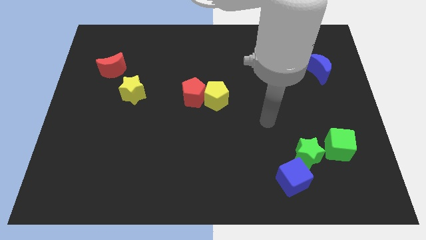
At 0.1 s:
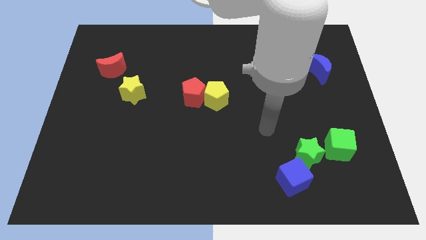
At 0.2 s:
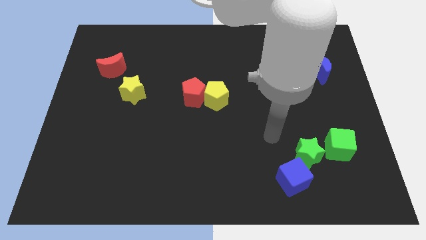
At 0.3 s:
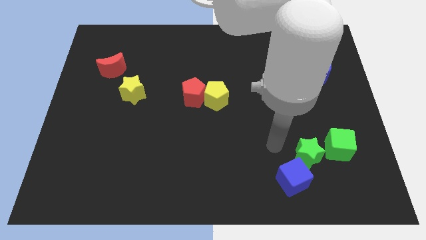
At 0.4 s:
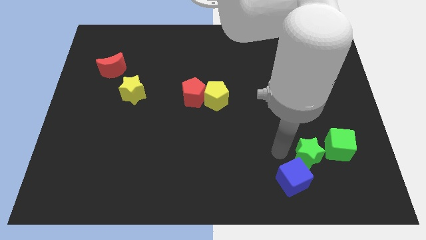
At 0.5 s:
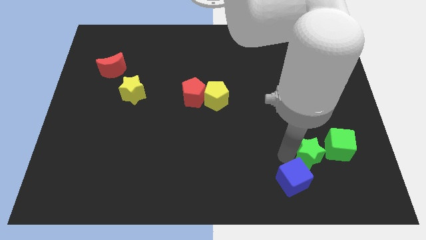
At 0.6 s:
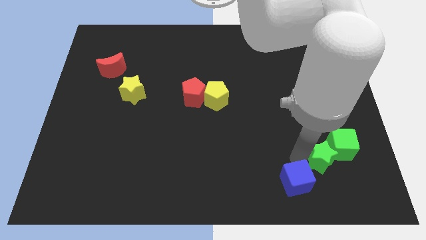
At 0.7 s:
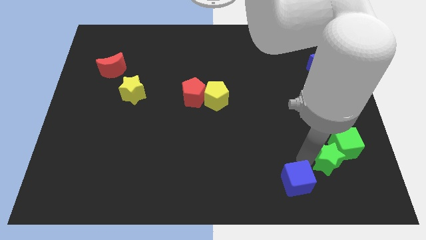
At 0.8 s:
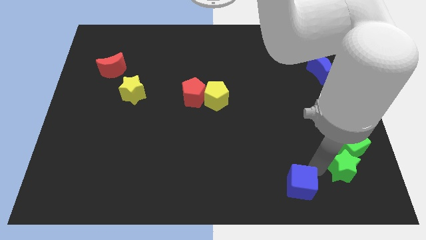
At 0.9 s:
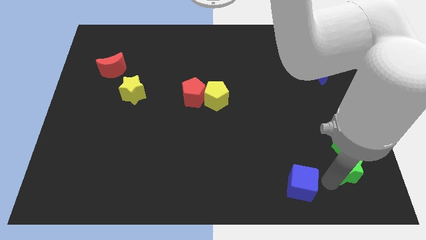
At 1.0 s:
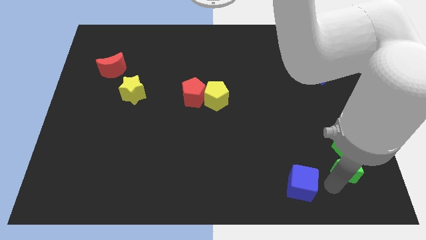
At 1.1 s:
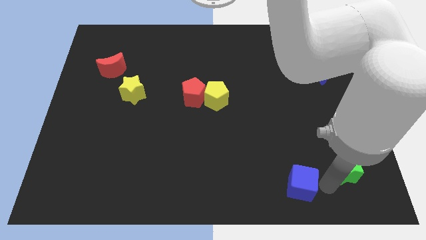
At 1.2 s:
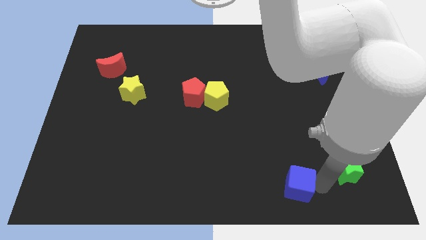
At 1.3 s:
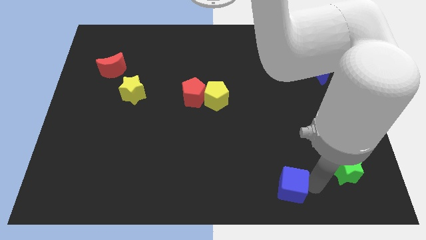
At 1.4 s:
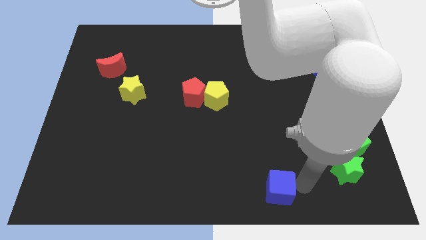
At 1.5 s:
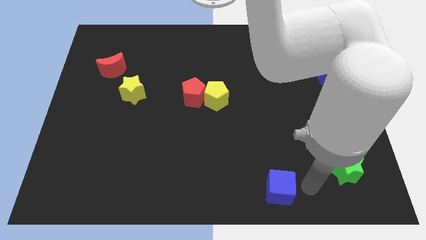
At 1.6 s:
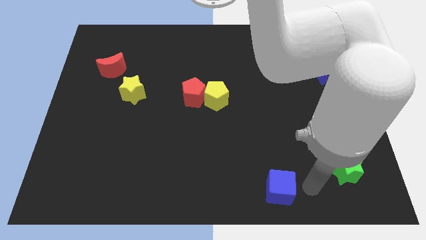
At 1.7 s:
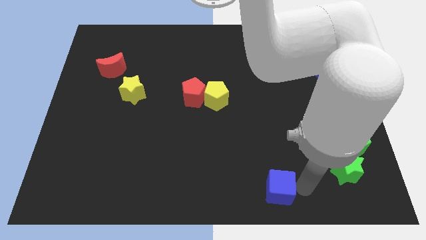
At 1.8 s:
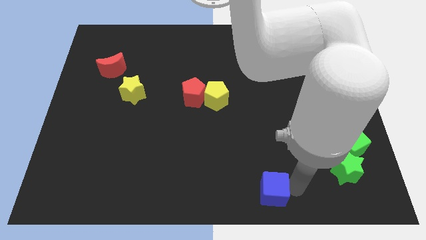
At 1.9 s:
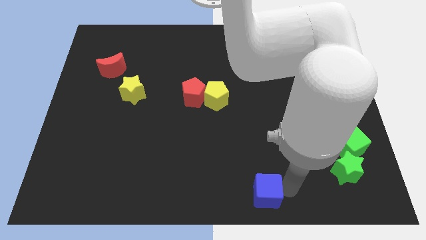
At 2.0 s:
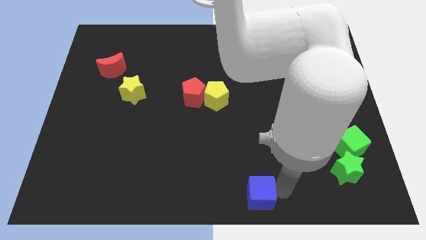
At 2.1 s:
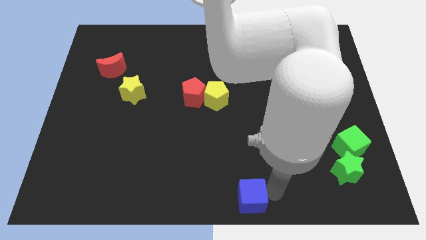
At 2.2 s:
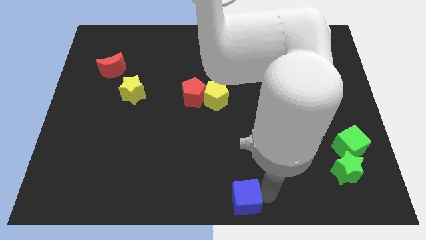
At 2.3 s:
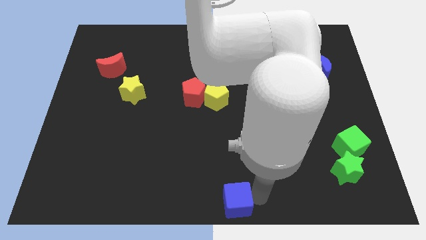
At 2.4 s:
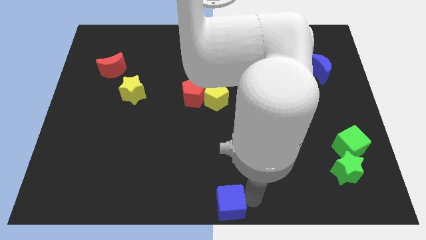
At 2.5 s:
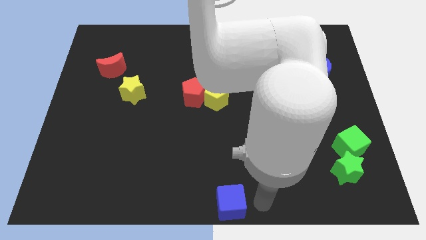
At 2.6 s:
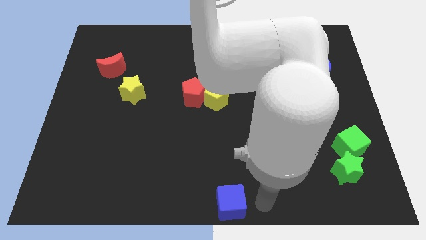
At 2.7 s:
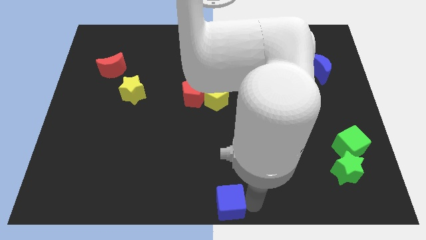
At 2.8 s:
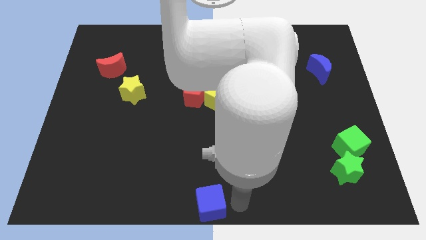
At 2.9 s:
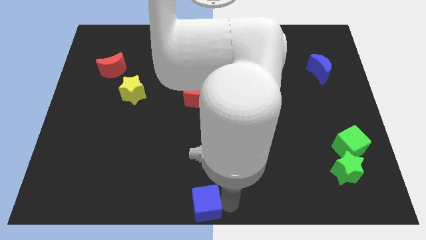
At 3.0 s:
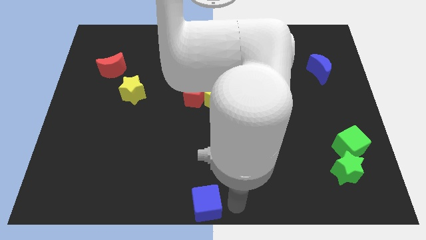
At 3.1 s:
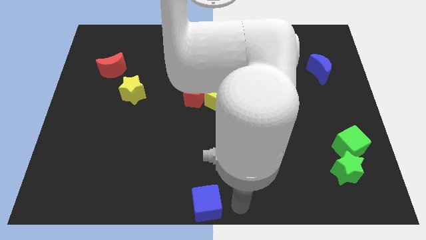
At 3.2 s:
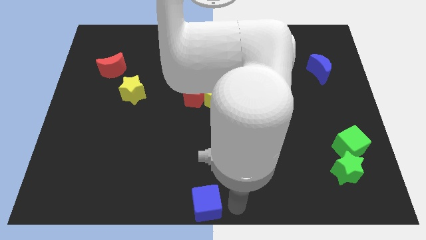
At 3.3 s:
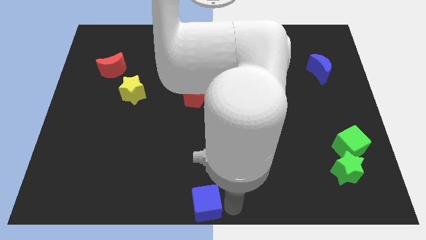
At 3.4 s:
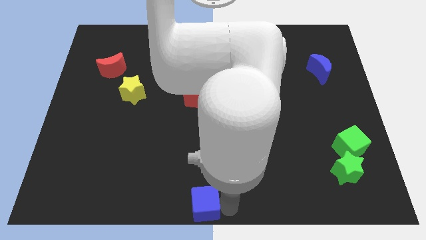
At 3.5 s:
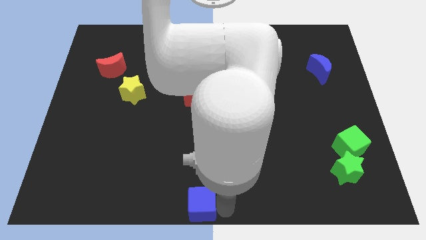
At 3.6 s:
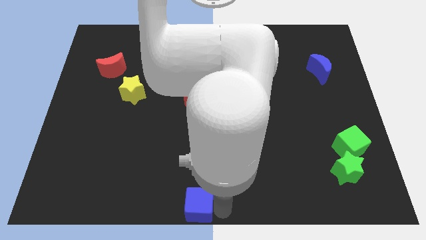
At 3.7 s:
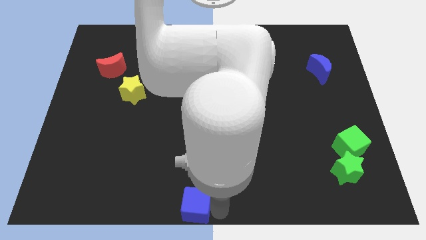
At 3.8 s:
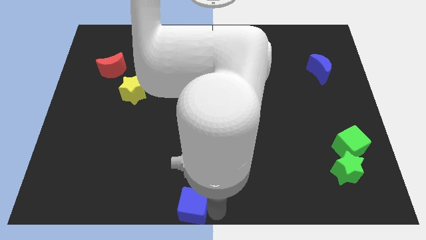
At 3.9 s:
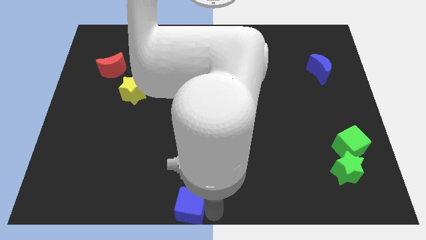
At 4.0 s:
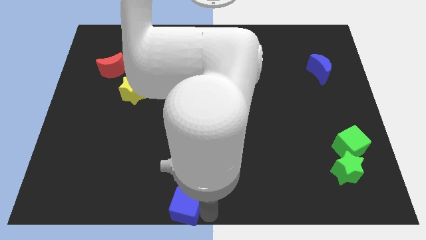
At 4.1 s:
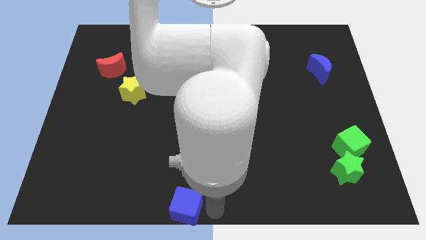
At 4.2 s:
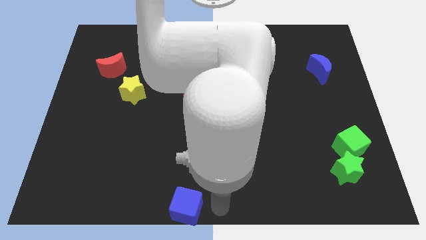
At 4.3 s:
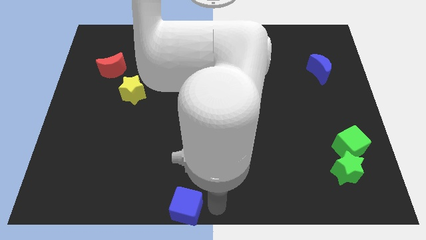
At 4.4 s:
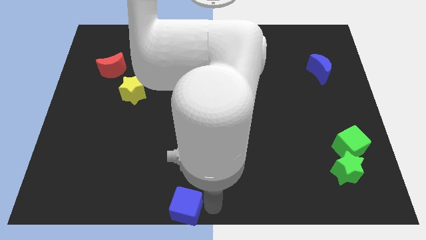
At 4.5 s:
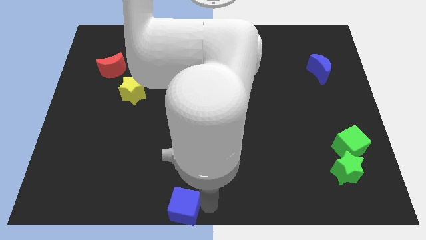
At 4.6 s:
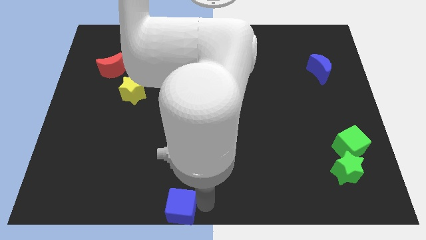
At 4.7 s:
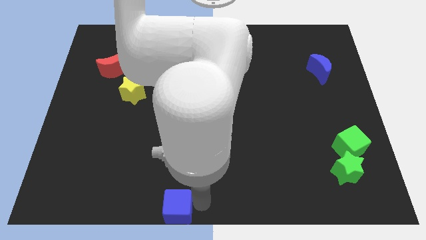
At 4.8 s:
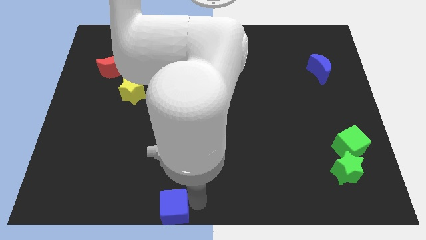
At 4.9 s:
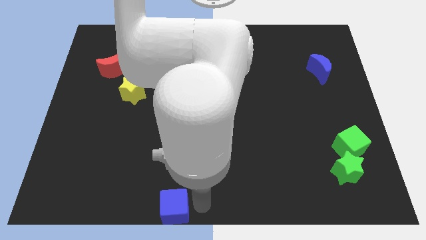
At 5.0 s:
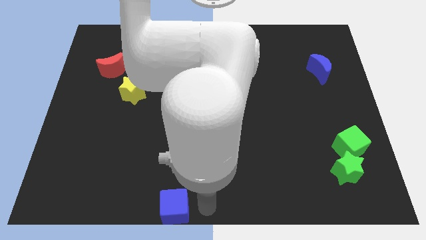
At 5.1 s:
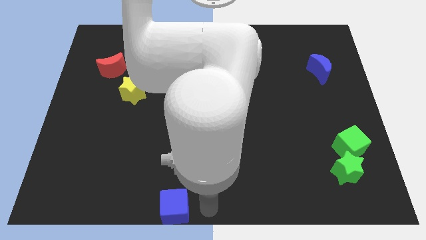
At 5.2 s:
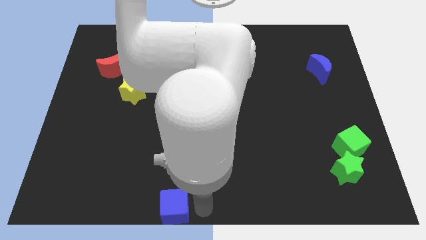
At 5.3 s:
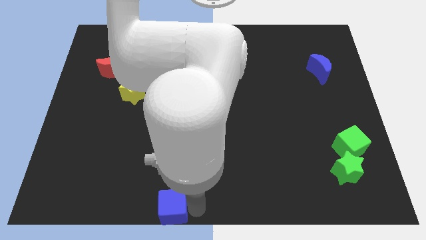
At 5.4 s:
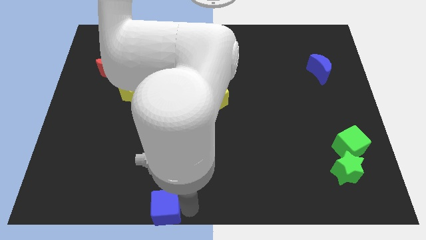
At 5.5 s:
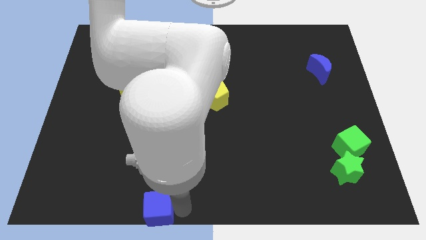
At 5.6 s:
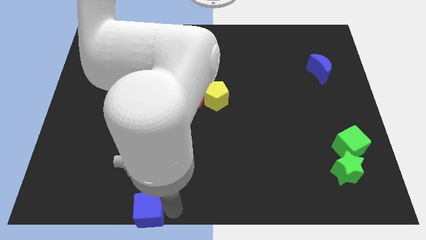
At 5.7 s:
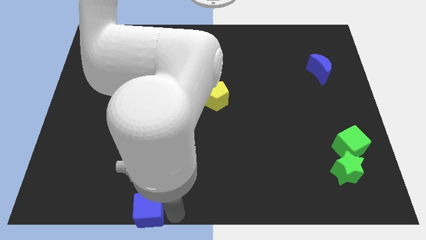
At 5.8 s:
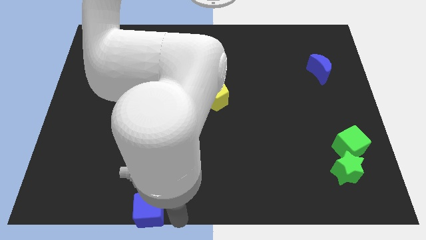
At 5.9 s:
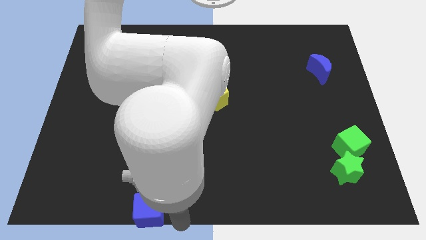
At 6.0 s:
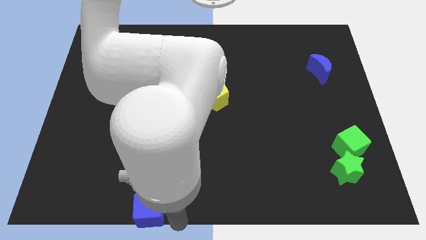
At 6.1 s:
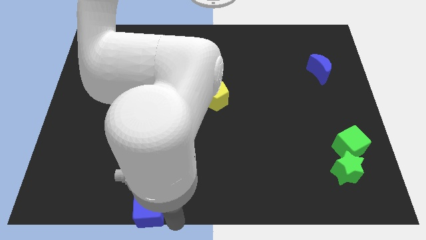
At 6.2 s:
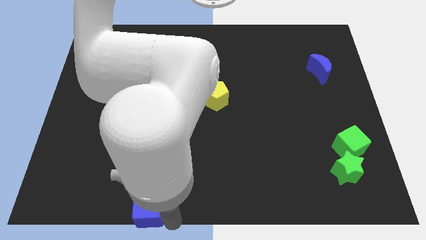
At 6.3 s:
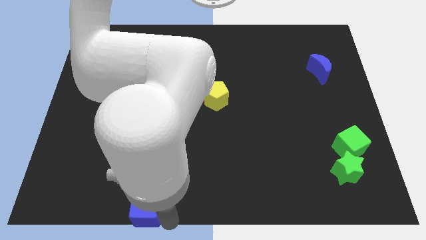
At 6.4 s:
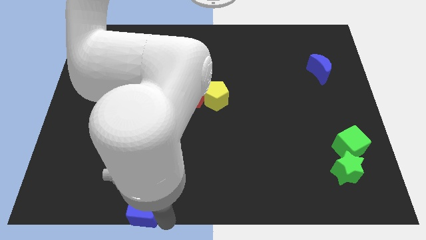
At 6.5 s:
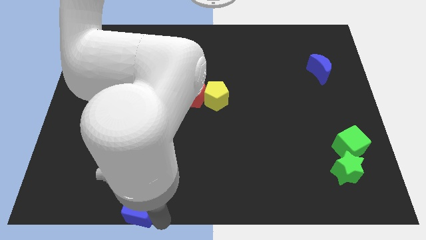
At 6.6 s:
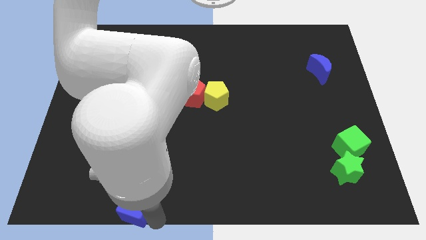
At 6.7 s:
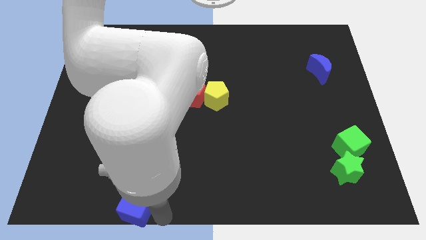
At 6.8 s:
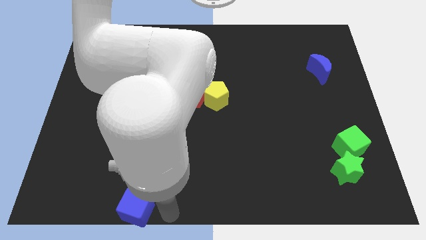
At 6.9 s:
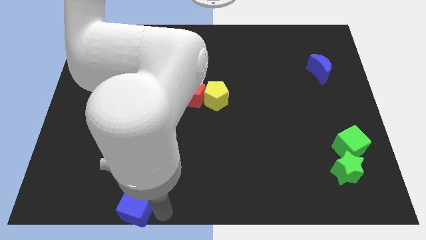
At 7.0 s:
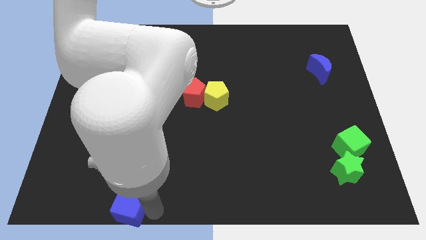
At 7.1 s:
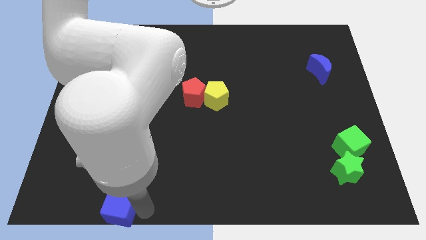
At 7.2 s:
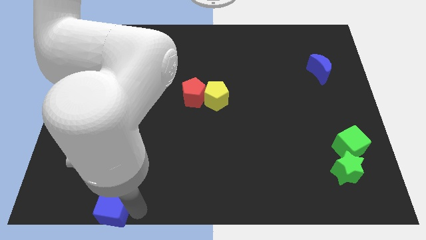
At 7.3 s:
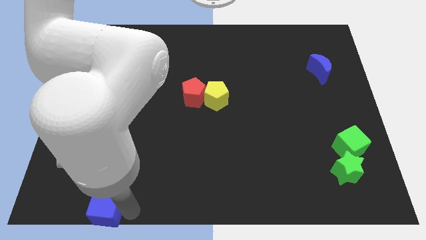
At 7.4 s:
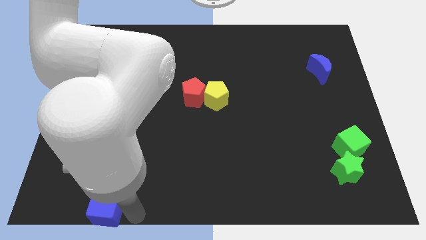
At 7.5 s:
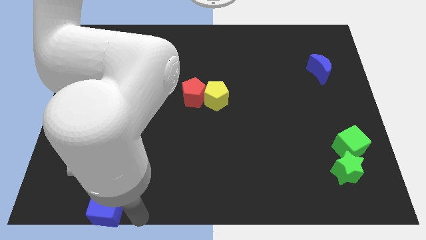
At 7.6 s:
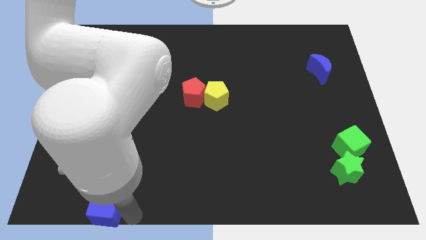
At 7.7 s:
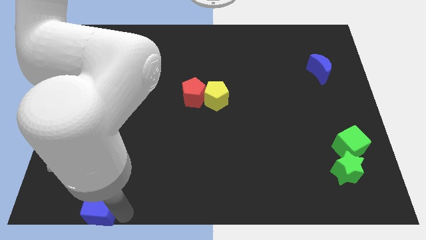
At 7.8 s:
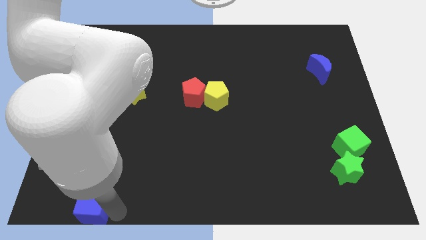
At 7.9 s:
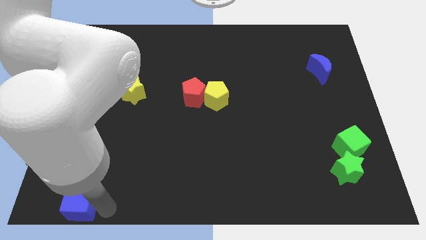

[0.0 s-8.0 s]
move the blue cube to the bottom left of the board
